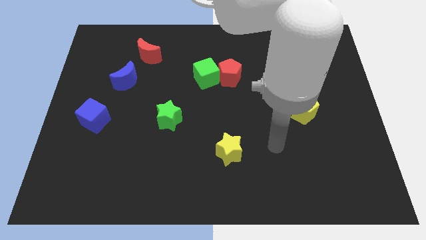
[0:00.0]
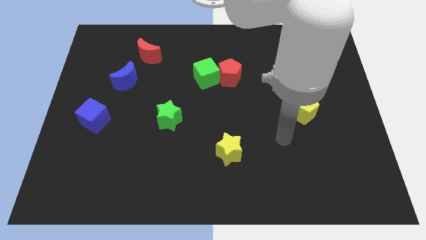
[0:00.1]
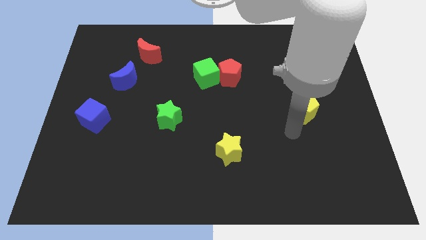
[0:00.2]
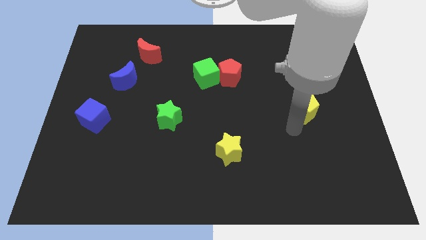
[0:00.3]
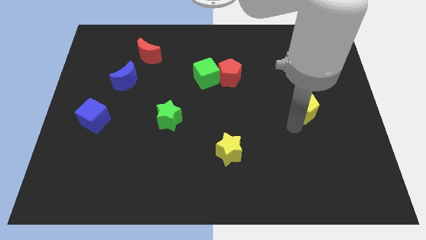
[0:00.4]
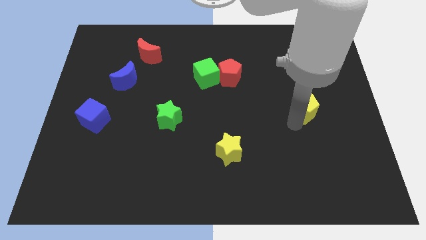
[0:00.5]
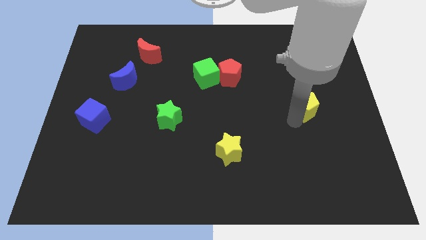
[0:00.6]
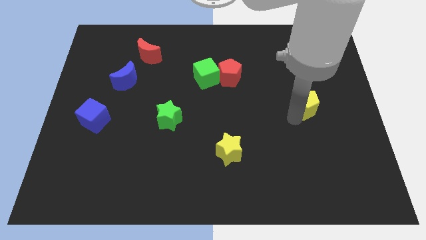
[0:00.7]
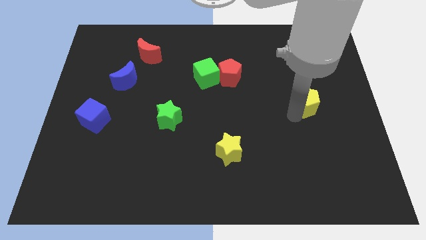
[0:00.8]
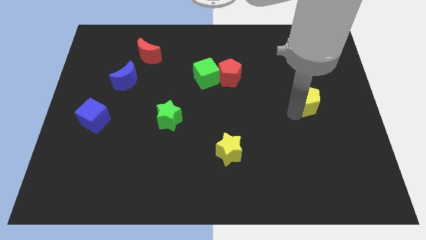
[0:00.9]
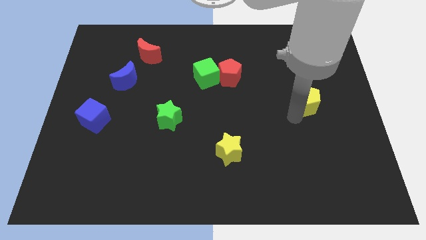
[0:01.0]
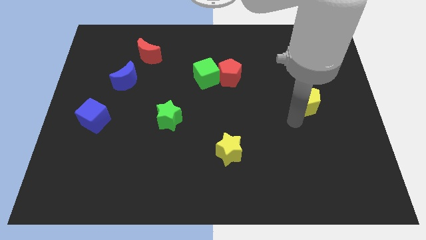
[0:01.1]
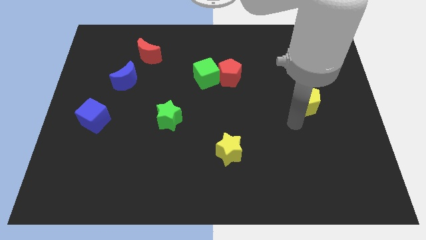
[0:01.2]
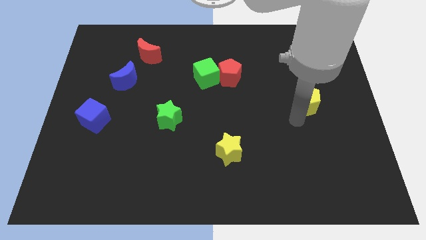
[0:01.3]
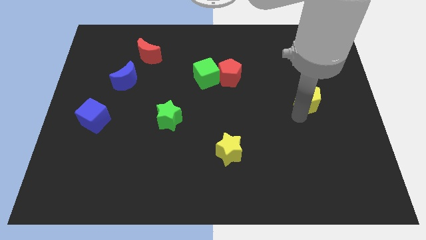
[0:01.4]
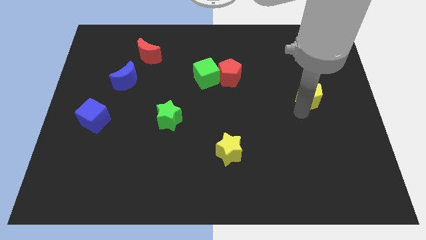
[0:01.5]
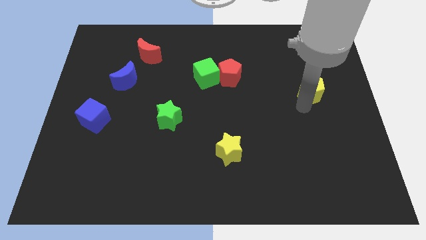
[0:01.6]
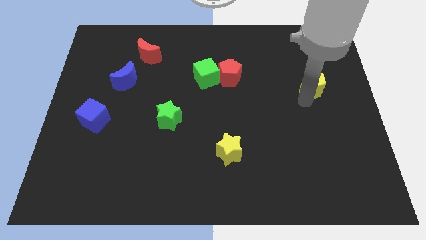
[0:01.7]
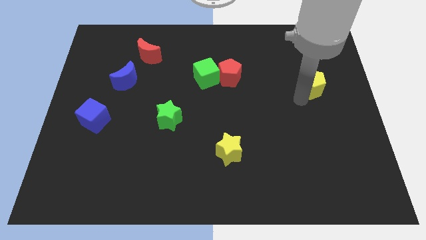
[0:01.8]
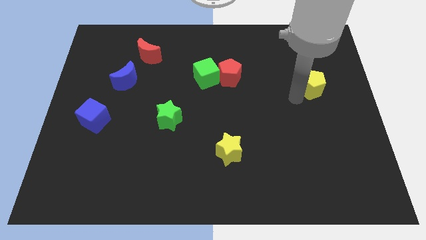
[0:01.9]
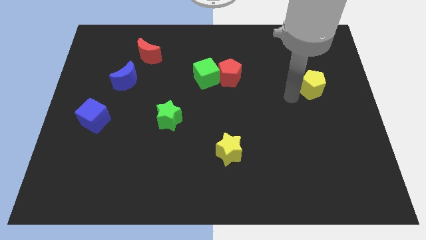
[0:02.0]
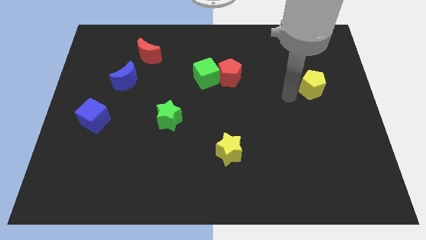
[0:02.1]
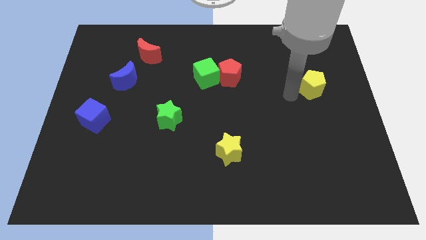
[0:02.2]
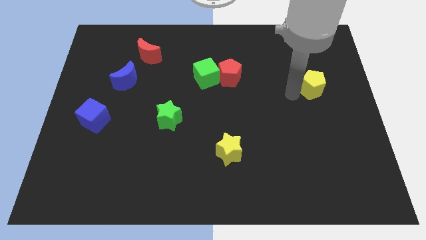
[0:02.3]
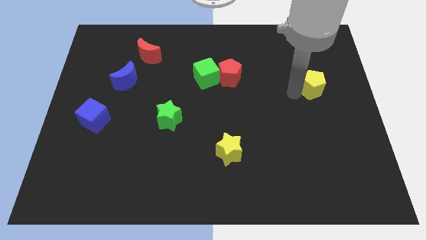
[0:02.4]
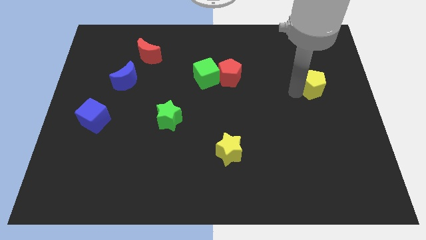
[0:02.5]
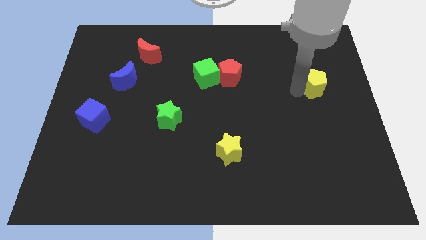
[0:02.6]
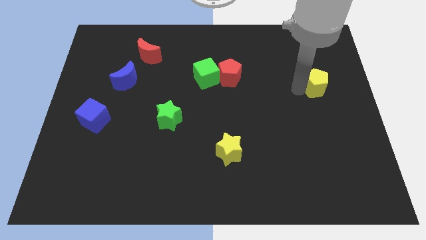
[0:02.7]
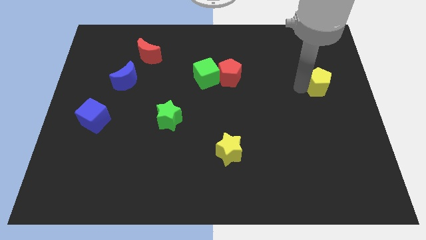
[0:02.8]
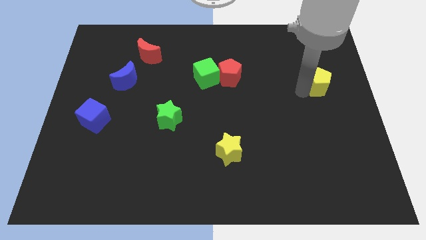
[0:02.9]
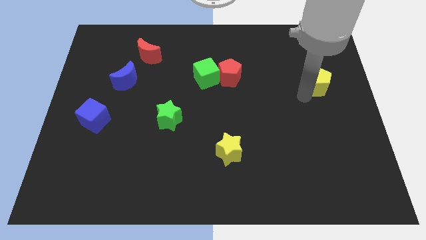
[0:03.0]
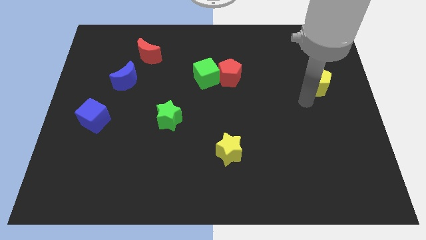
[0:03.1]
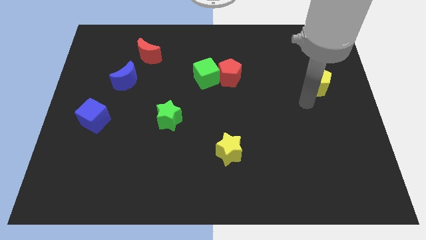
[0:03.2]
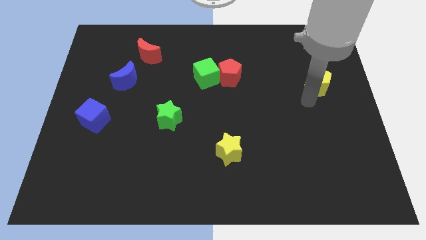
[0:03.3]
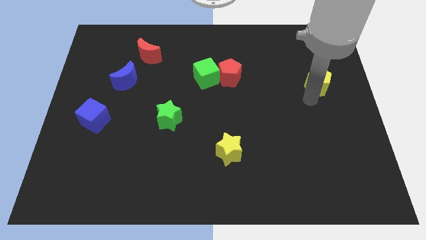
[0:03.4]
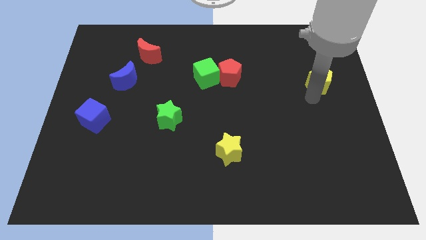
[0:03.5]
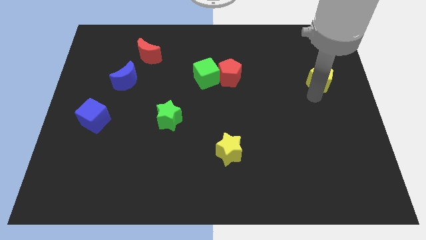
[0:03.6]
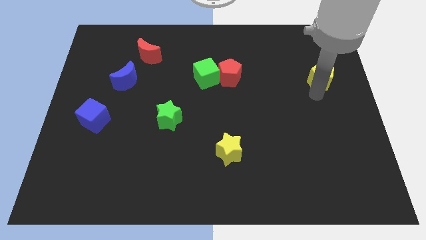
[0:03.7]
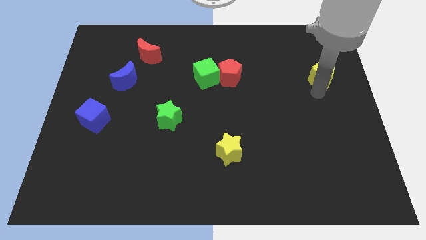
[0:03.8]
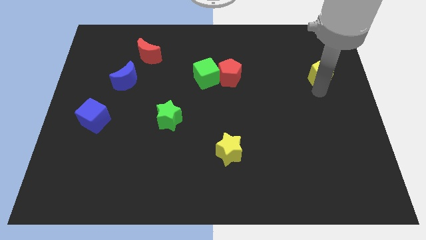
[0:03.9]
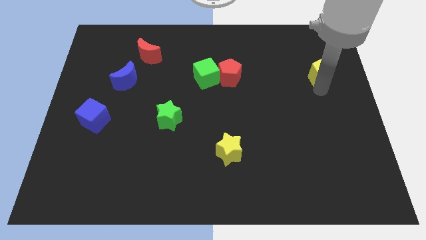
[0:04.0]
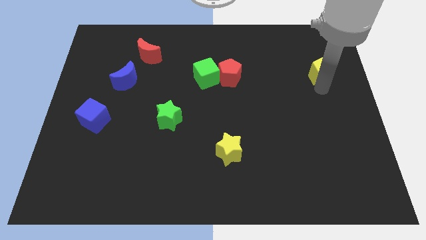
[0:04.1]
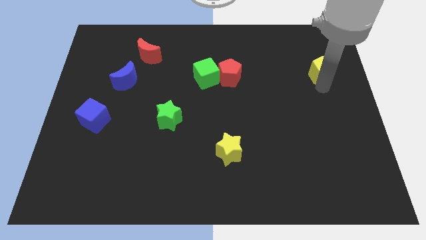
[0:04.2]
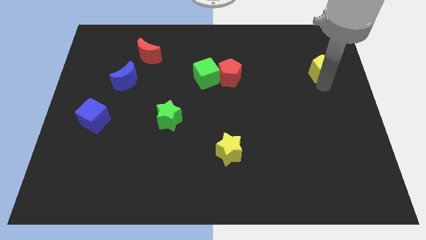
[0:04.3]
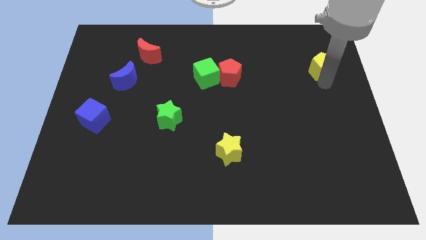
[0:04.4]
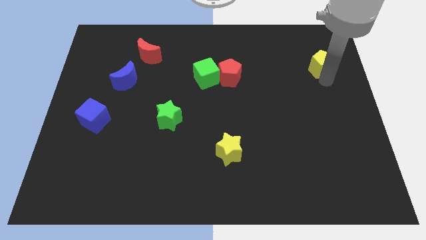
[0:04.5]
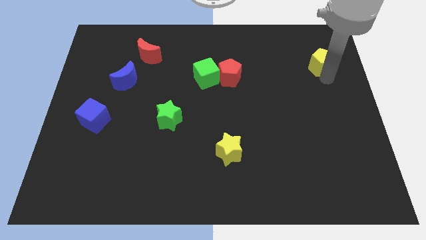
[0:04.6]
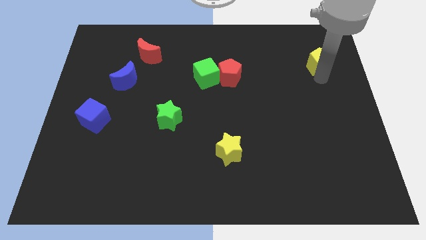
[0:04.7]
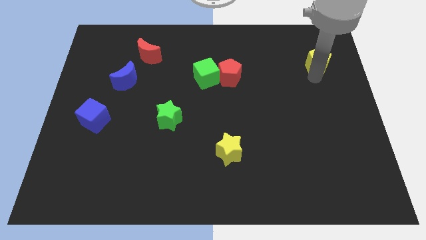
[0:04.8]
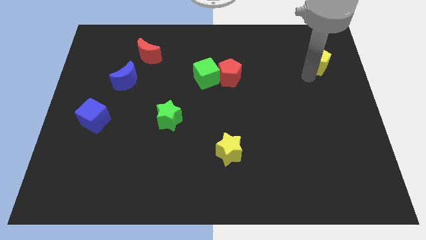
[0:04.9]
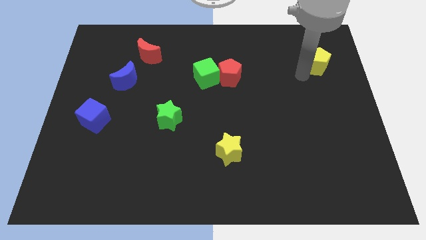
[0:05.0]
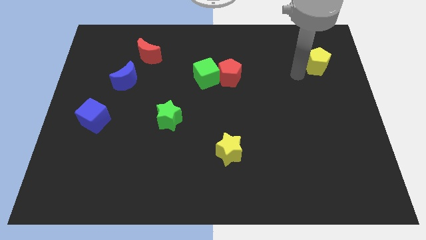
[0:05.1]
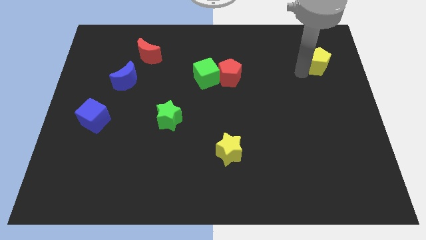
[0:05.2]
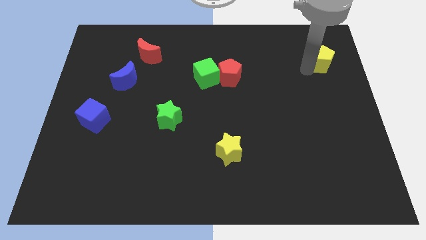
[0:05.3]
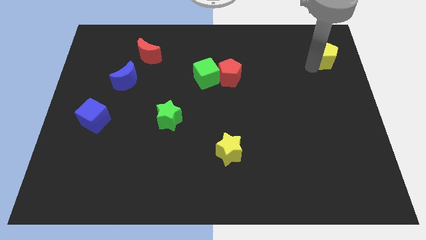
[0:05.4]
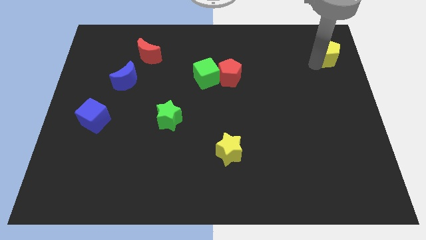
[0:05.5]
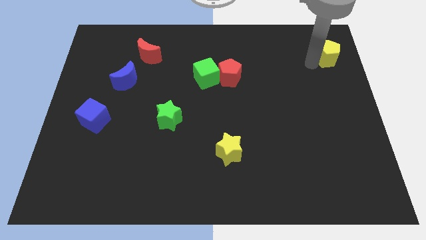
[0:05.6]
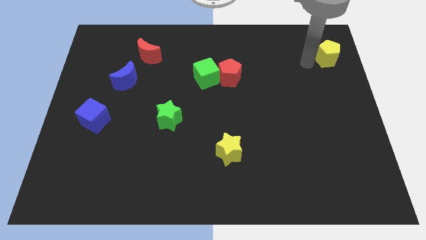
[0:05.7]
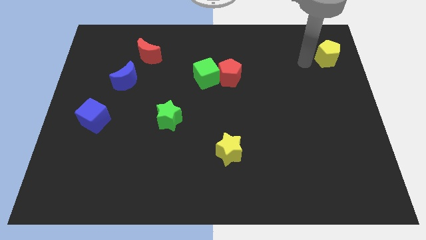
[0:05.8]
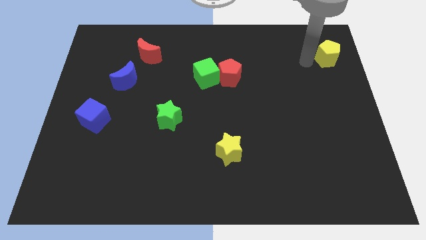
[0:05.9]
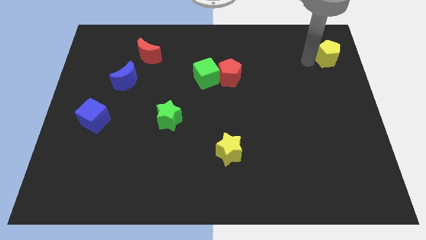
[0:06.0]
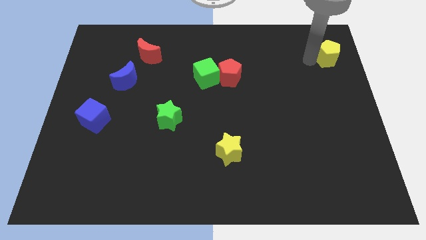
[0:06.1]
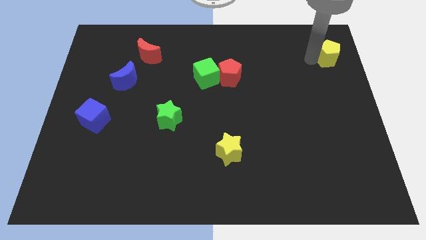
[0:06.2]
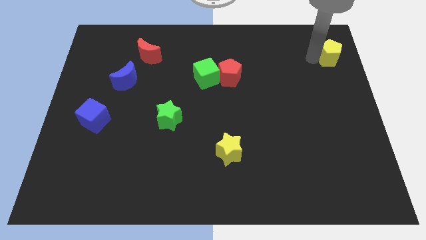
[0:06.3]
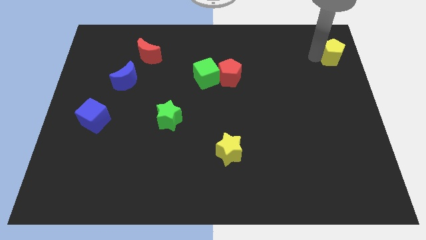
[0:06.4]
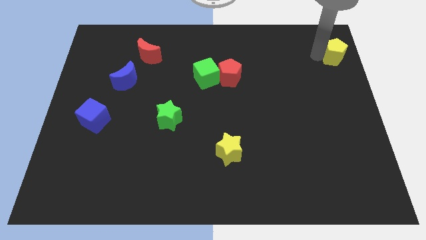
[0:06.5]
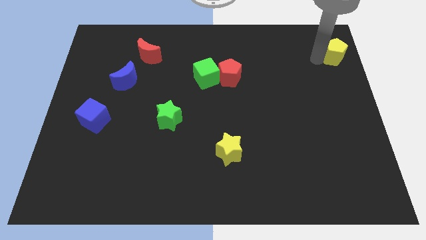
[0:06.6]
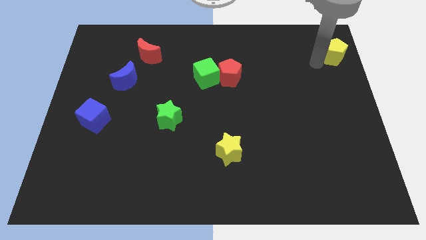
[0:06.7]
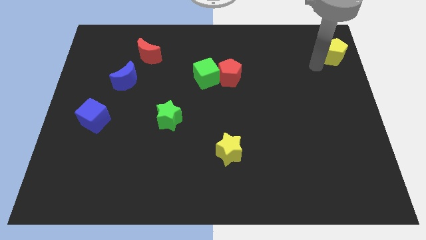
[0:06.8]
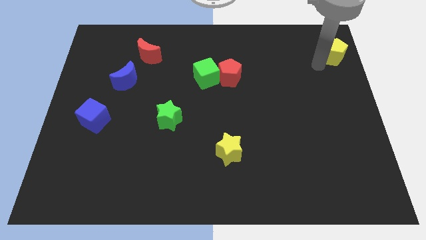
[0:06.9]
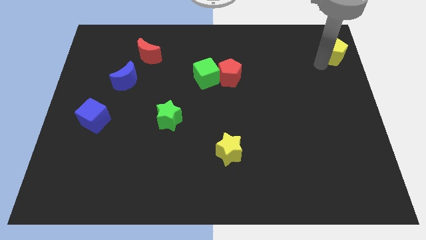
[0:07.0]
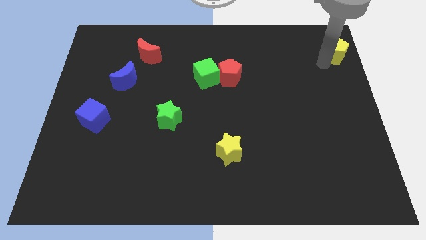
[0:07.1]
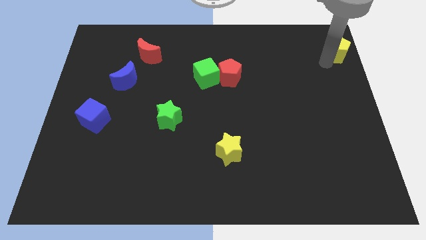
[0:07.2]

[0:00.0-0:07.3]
put the yellow pentagon to the upper right corner

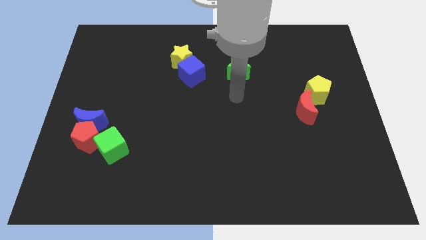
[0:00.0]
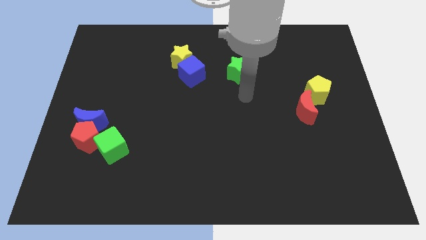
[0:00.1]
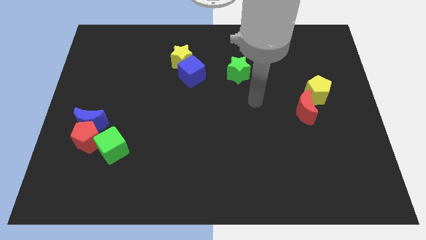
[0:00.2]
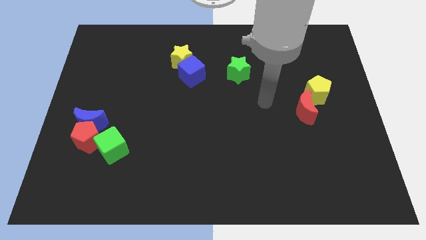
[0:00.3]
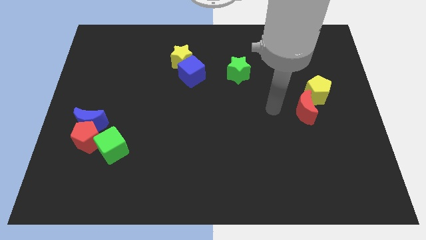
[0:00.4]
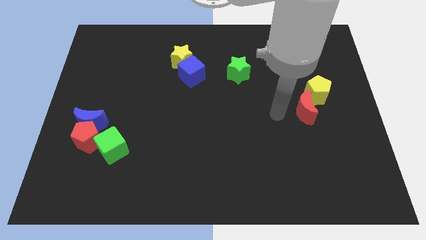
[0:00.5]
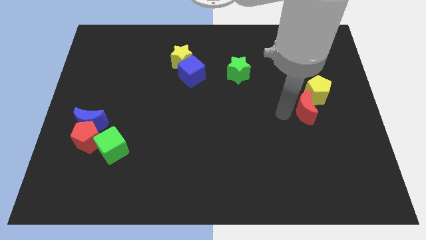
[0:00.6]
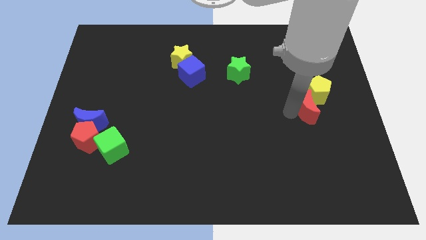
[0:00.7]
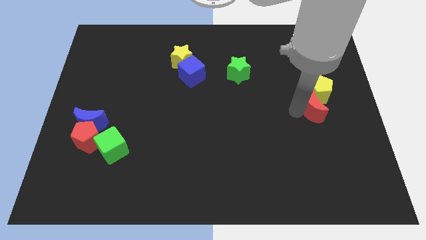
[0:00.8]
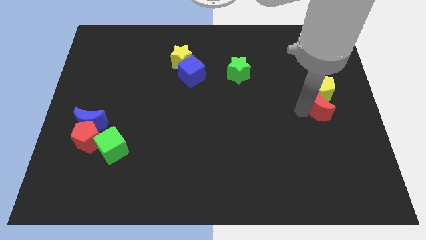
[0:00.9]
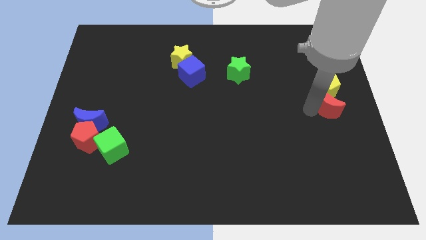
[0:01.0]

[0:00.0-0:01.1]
slide the red moon to the right side
